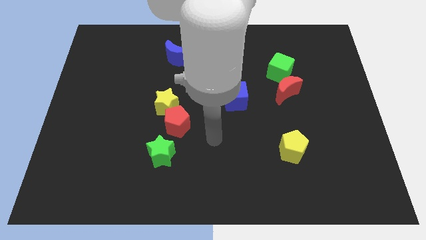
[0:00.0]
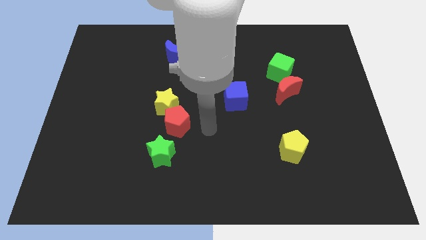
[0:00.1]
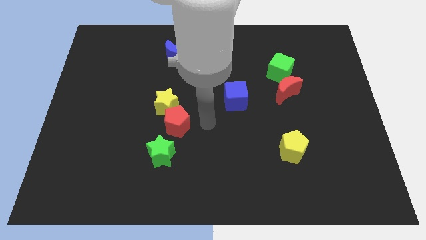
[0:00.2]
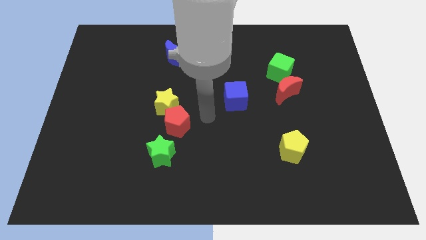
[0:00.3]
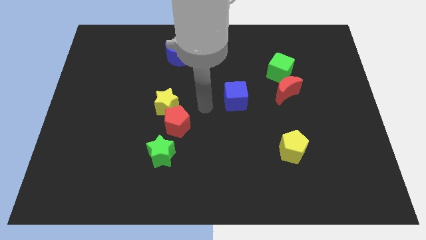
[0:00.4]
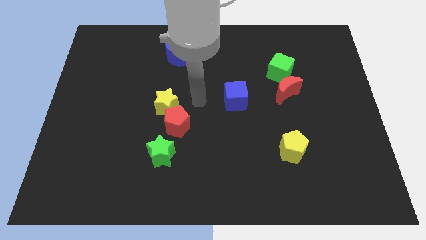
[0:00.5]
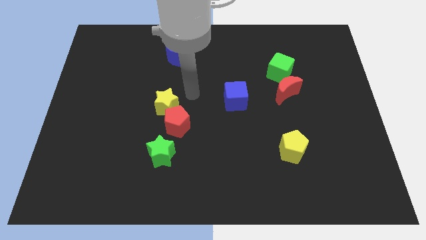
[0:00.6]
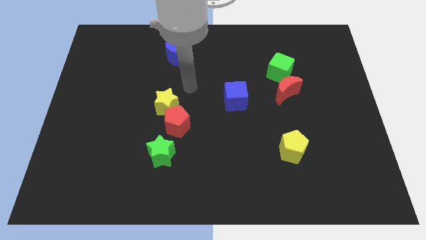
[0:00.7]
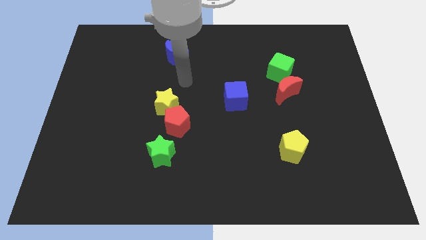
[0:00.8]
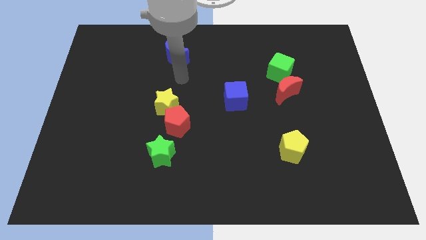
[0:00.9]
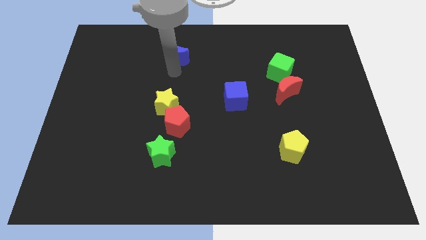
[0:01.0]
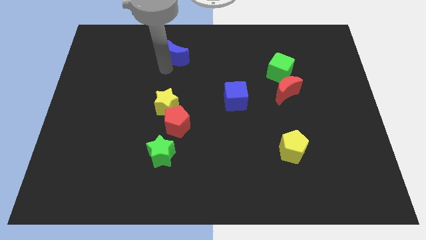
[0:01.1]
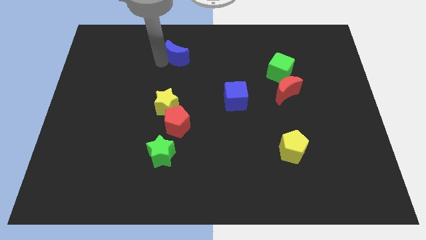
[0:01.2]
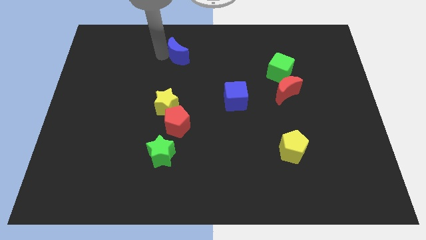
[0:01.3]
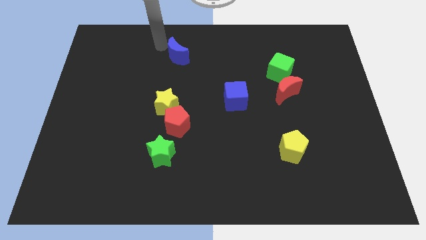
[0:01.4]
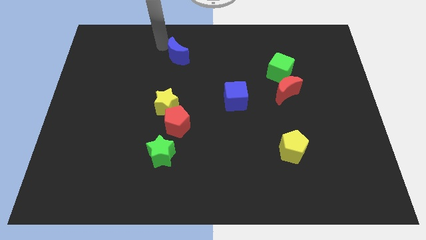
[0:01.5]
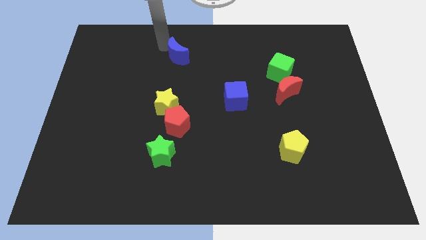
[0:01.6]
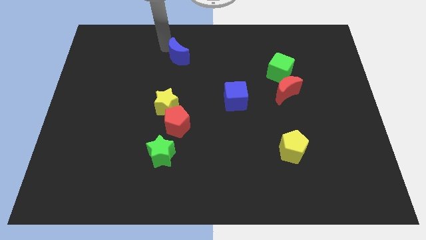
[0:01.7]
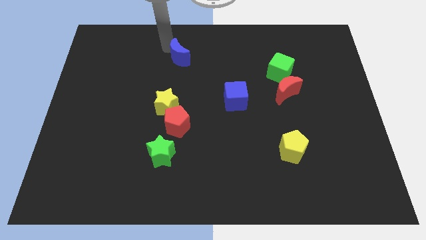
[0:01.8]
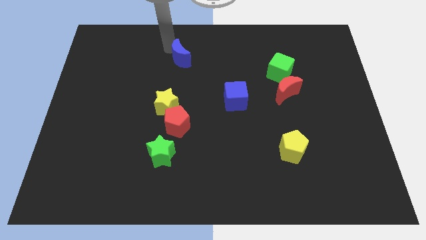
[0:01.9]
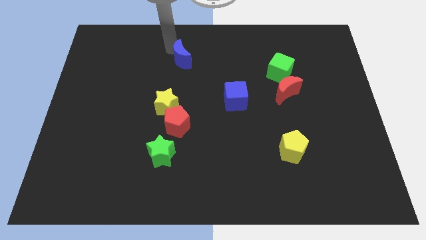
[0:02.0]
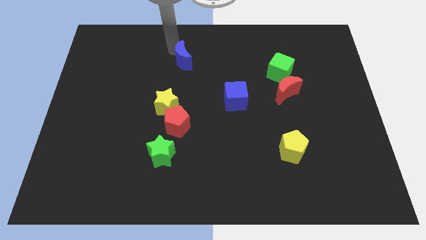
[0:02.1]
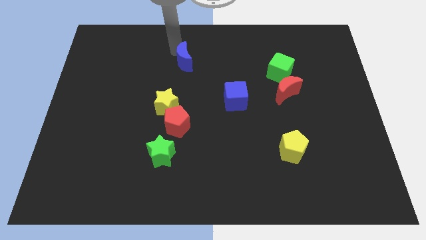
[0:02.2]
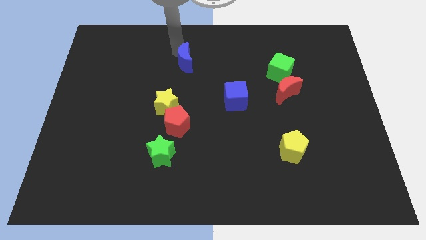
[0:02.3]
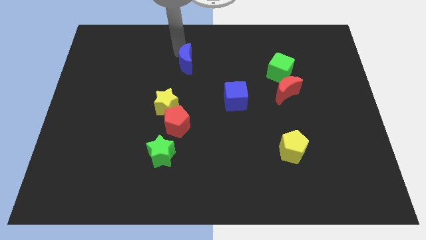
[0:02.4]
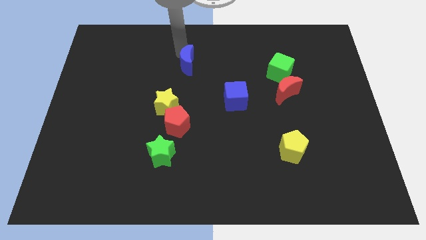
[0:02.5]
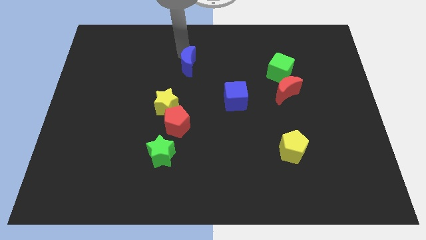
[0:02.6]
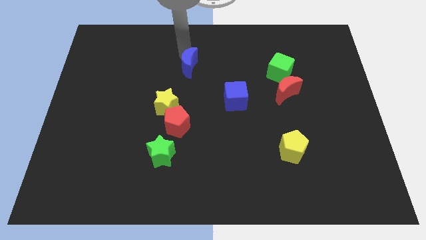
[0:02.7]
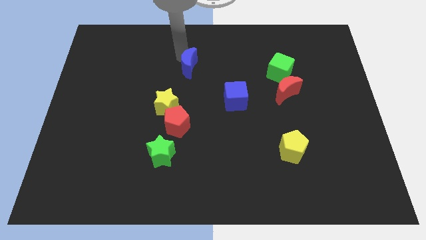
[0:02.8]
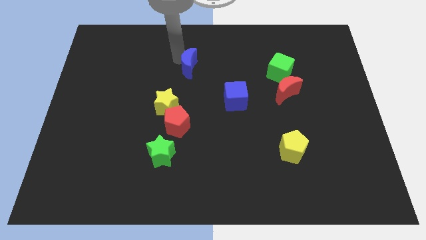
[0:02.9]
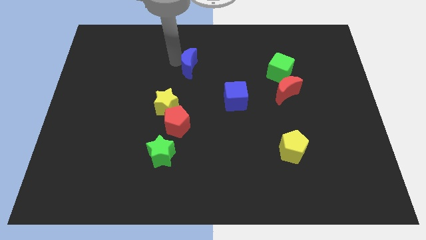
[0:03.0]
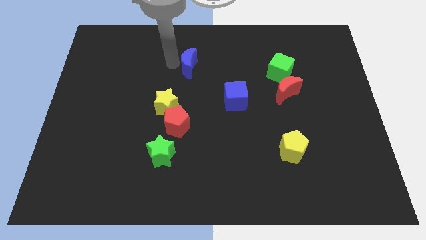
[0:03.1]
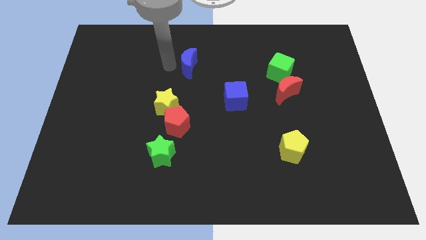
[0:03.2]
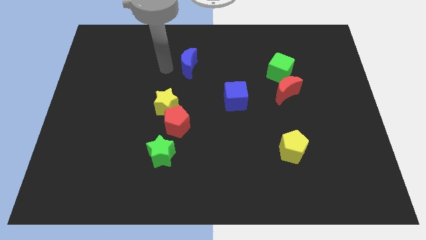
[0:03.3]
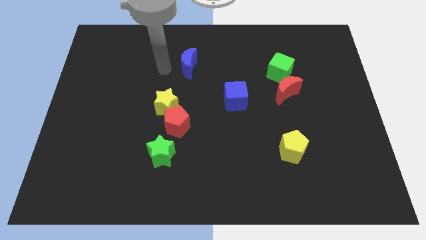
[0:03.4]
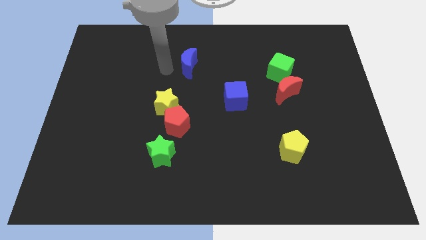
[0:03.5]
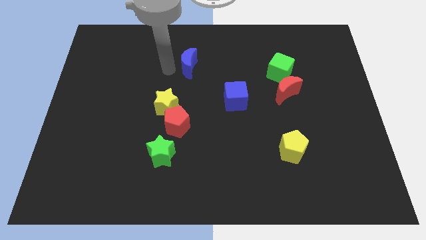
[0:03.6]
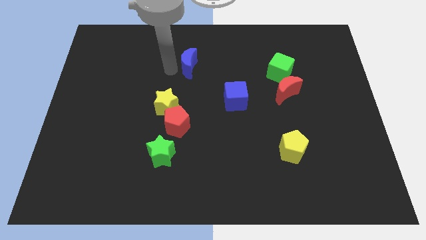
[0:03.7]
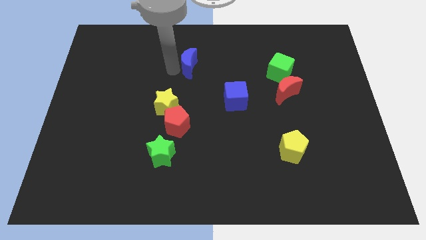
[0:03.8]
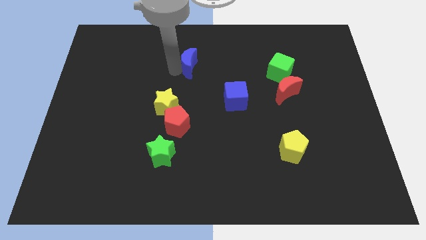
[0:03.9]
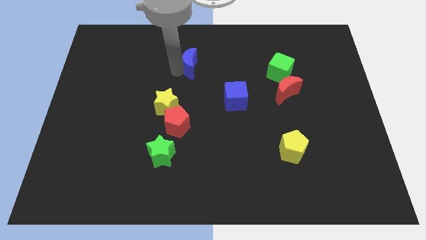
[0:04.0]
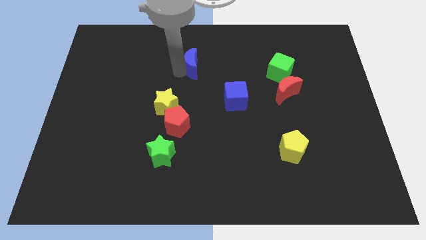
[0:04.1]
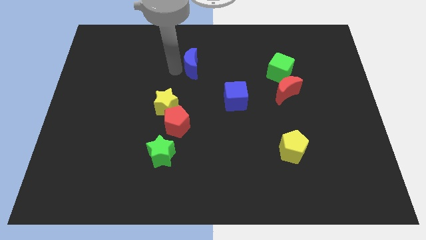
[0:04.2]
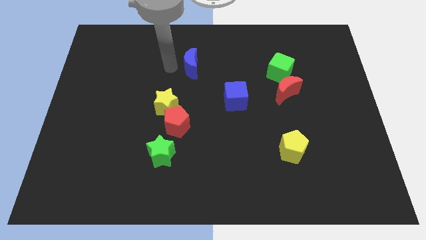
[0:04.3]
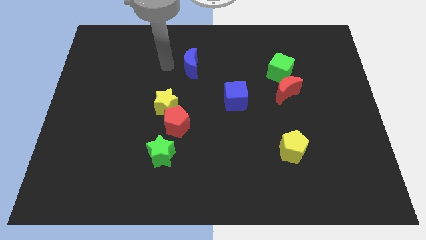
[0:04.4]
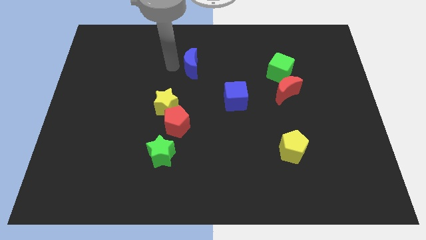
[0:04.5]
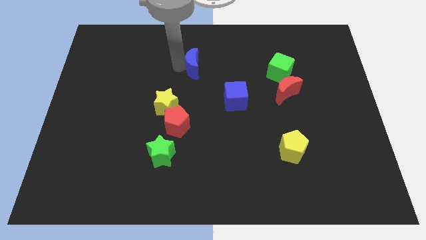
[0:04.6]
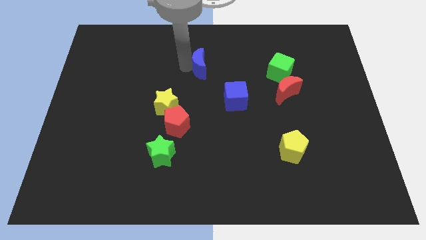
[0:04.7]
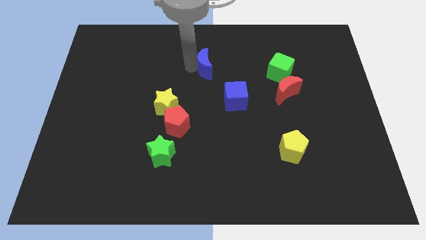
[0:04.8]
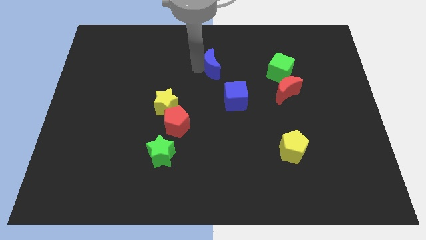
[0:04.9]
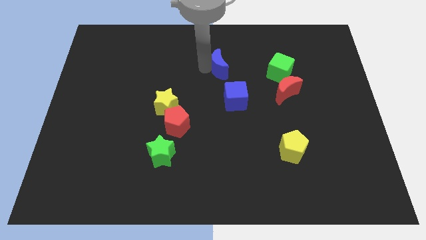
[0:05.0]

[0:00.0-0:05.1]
slide the blue moon above the blue cube

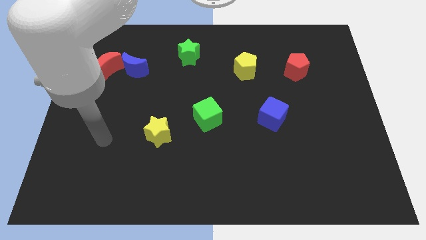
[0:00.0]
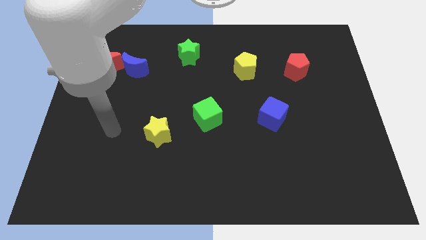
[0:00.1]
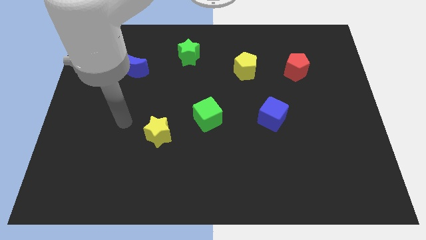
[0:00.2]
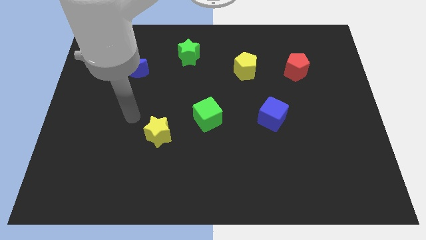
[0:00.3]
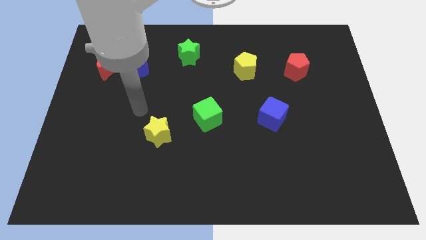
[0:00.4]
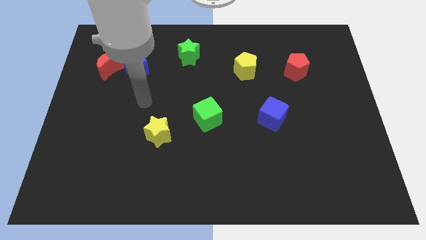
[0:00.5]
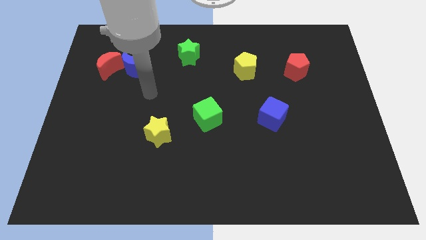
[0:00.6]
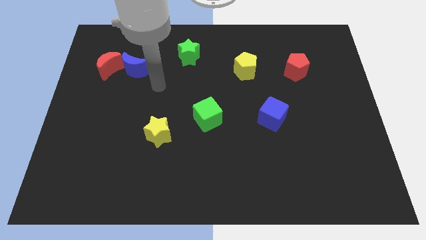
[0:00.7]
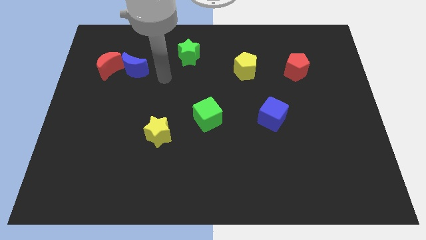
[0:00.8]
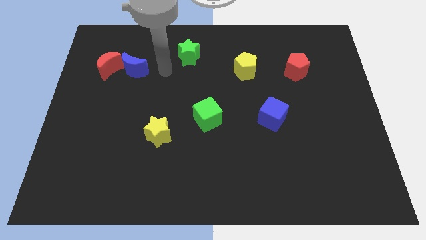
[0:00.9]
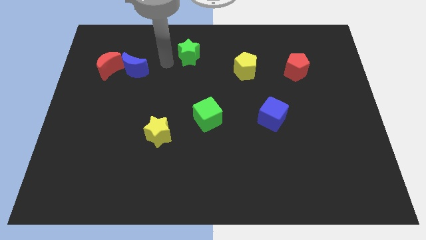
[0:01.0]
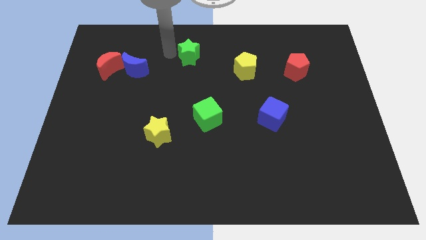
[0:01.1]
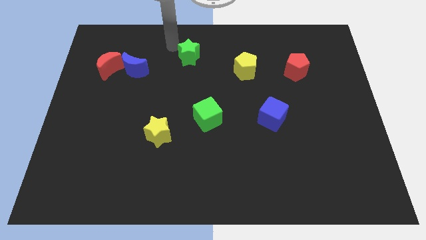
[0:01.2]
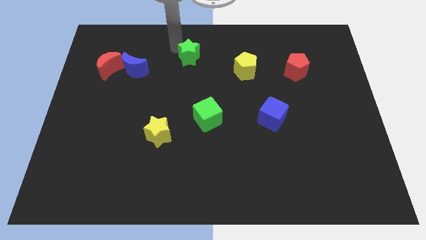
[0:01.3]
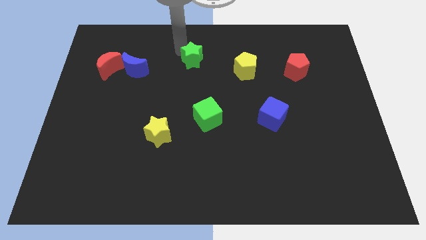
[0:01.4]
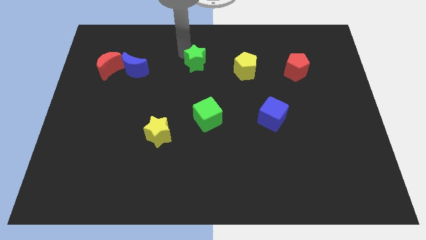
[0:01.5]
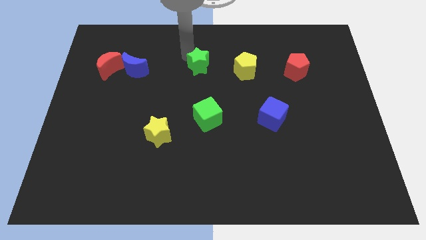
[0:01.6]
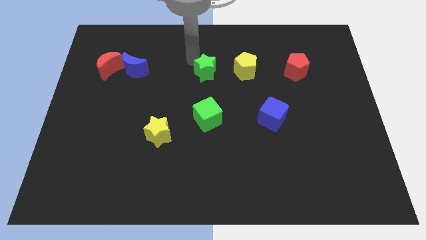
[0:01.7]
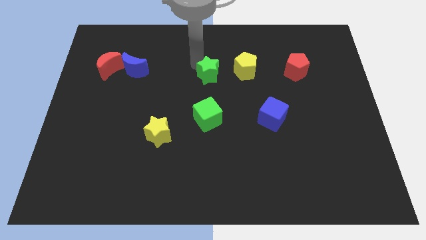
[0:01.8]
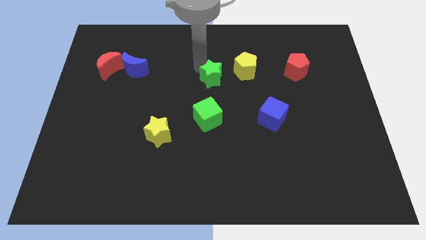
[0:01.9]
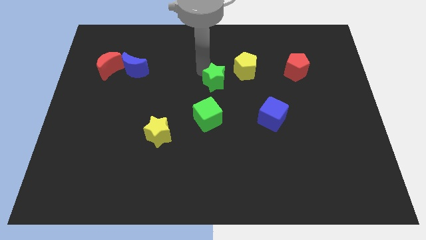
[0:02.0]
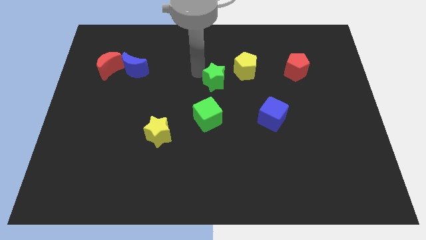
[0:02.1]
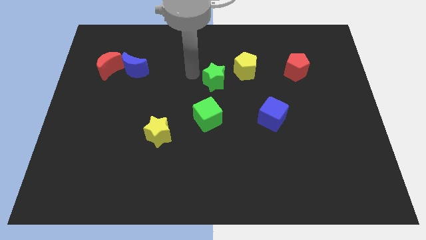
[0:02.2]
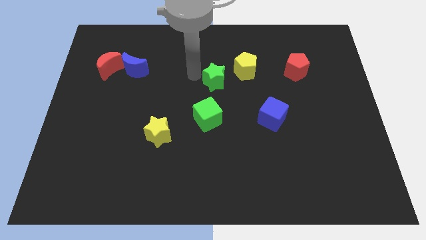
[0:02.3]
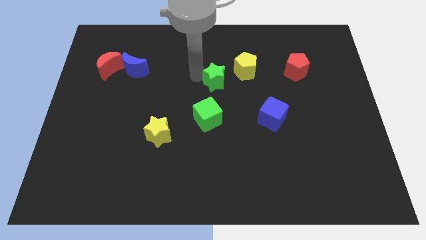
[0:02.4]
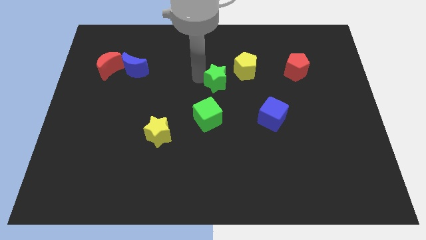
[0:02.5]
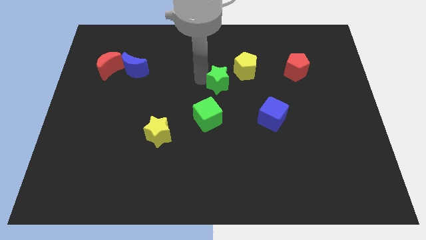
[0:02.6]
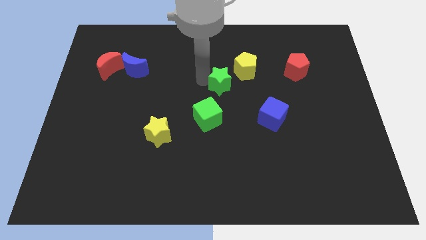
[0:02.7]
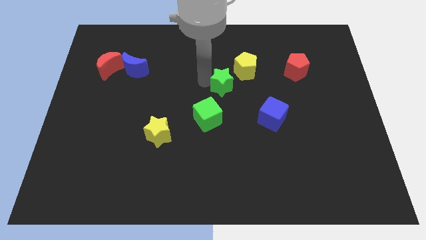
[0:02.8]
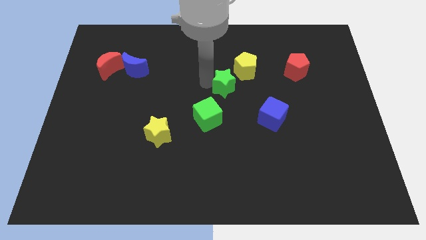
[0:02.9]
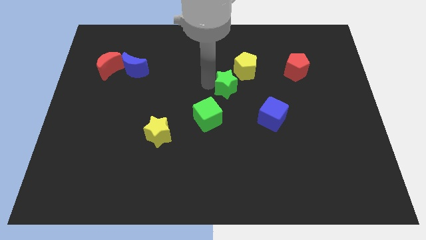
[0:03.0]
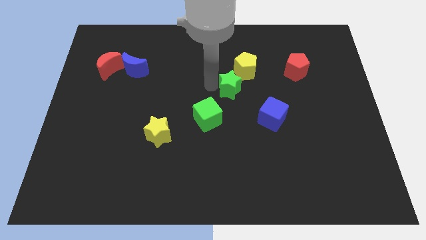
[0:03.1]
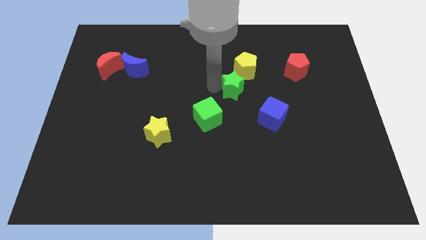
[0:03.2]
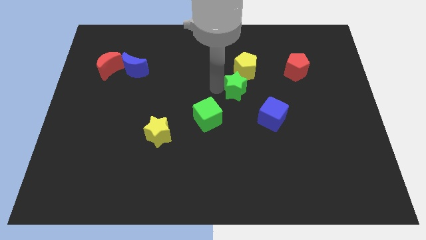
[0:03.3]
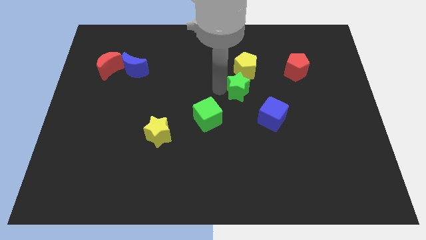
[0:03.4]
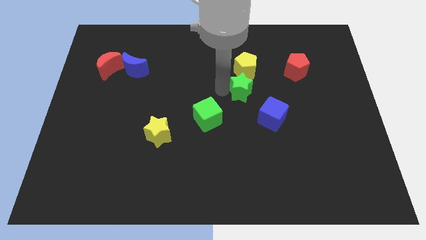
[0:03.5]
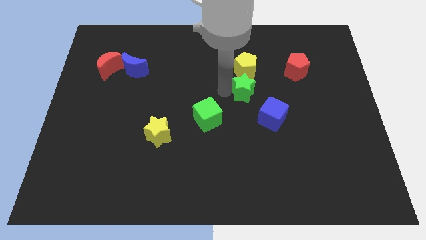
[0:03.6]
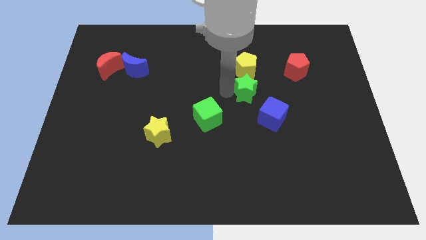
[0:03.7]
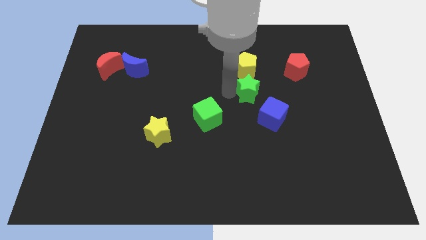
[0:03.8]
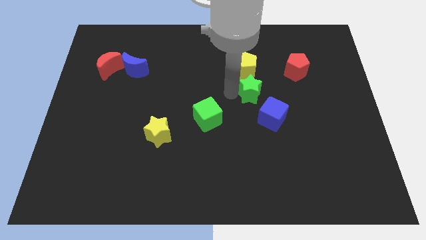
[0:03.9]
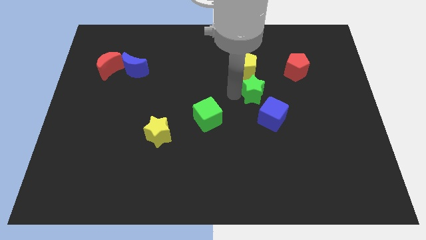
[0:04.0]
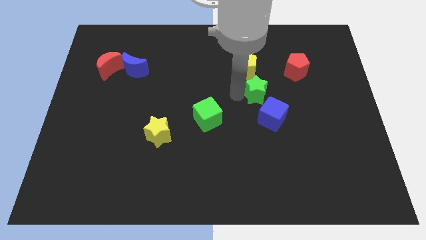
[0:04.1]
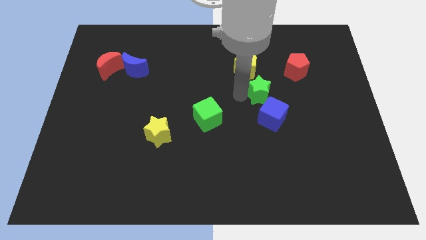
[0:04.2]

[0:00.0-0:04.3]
slide the green star to the bottom left of the red pentagon
